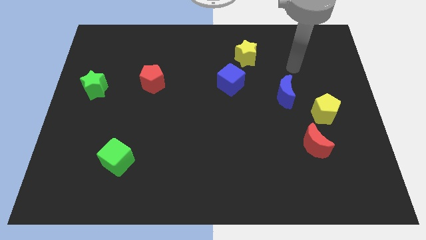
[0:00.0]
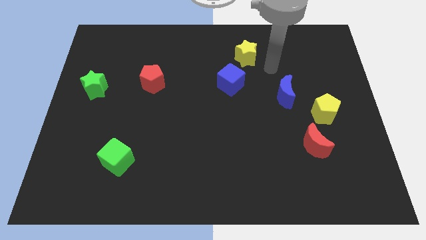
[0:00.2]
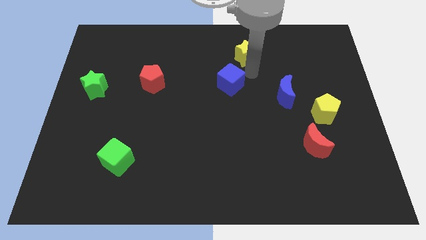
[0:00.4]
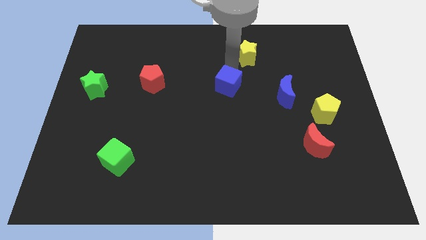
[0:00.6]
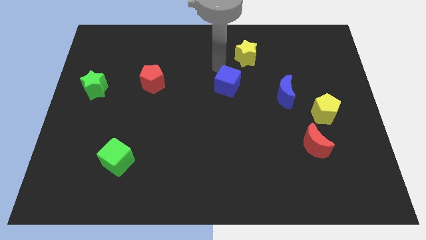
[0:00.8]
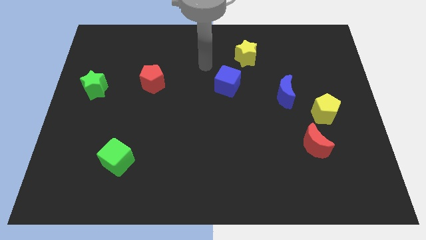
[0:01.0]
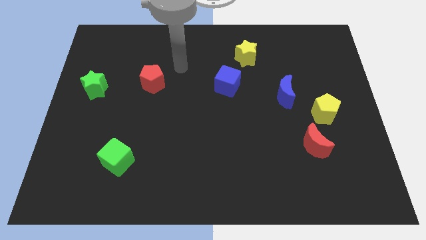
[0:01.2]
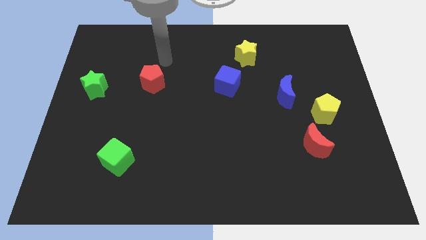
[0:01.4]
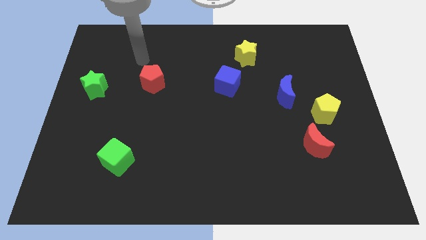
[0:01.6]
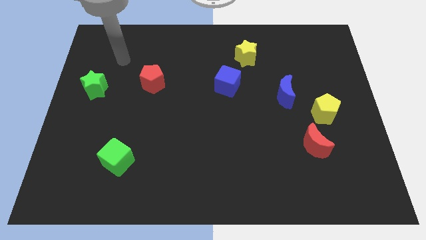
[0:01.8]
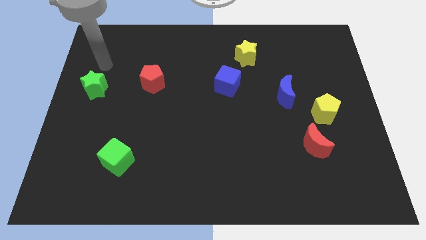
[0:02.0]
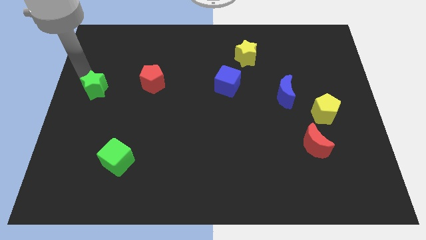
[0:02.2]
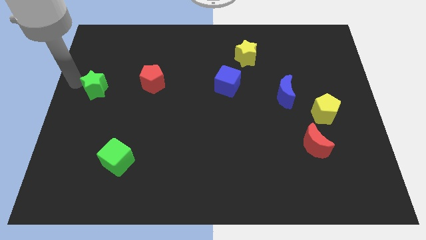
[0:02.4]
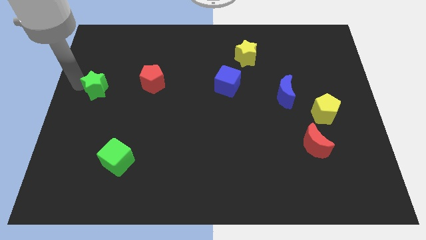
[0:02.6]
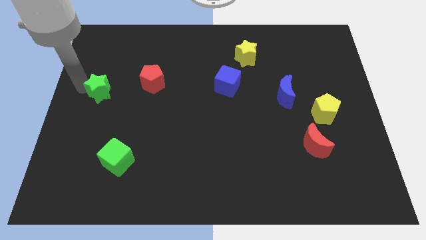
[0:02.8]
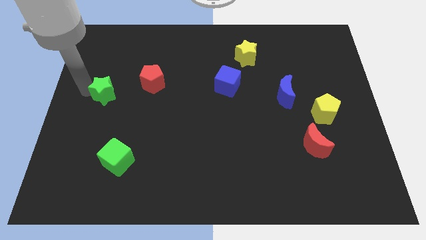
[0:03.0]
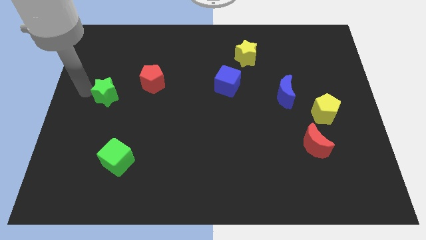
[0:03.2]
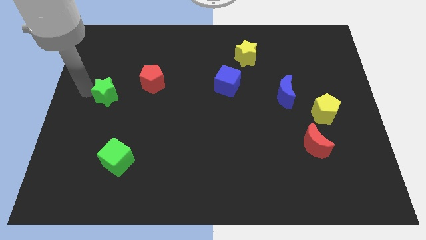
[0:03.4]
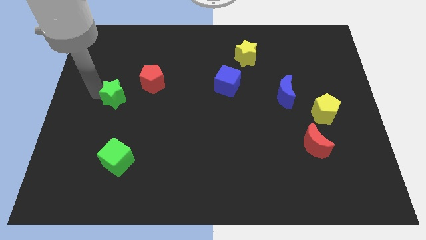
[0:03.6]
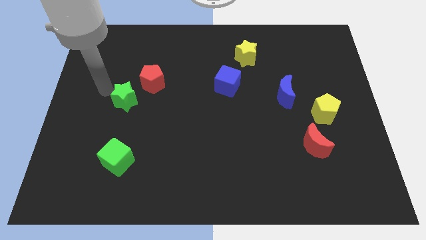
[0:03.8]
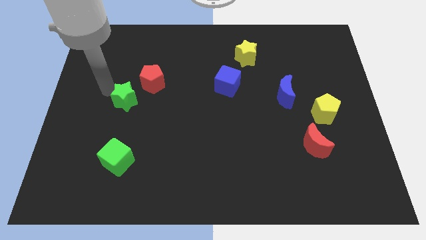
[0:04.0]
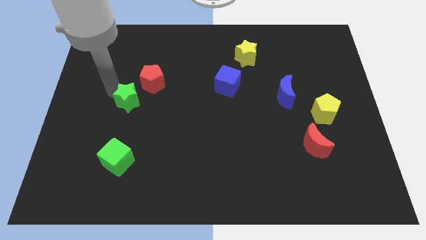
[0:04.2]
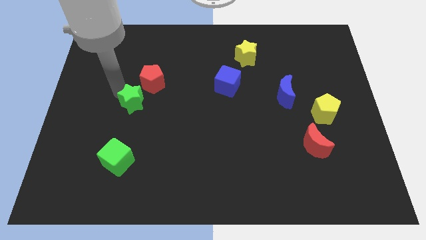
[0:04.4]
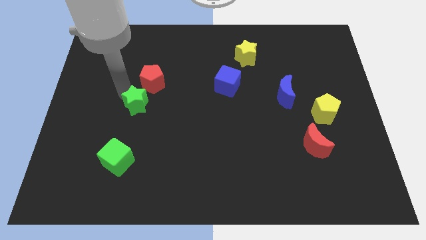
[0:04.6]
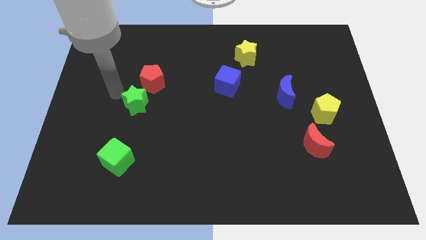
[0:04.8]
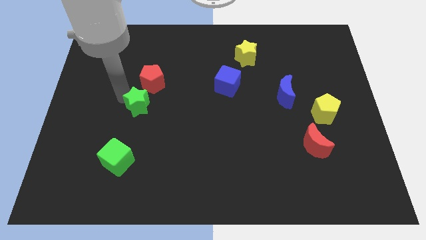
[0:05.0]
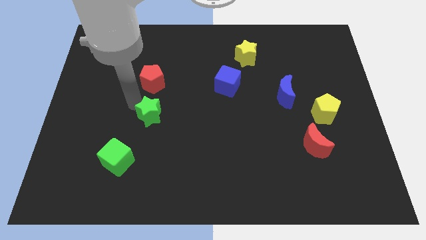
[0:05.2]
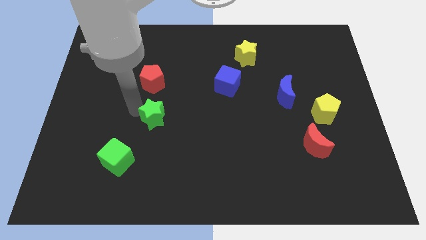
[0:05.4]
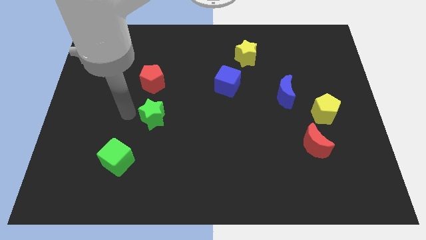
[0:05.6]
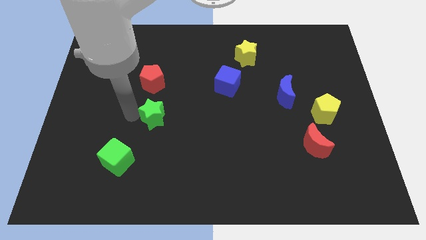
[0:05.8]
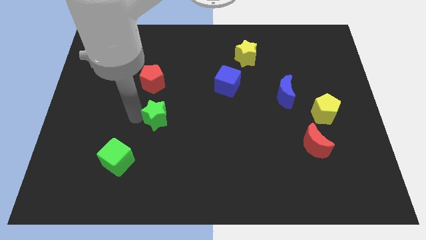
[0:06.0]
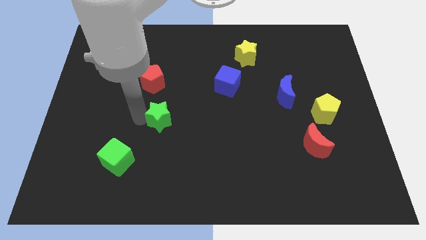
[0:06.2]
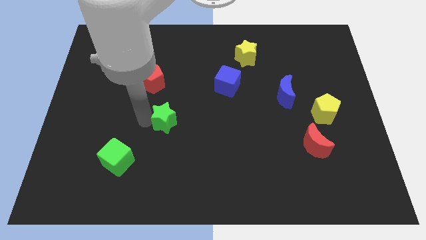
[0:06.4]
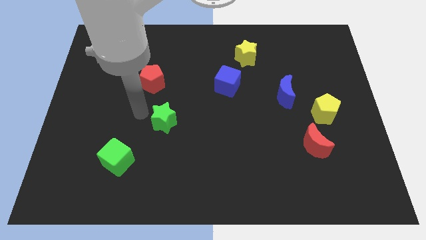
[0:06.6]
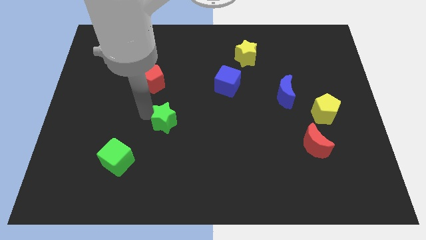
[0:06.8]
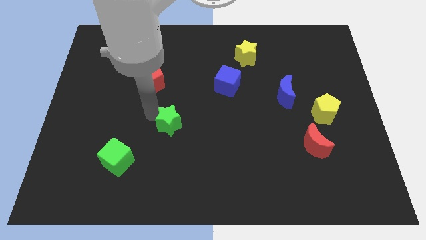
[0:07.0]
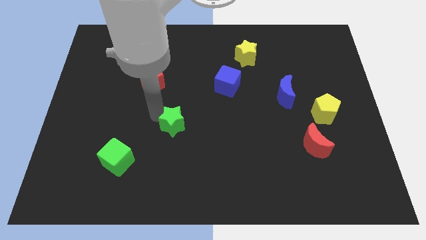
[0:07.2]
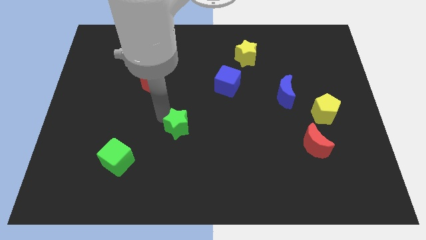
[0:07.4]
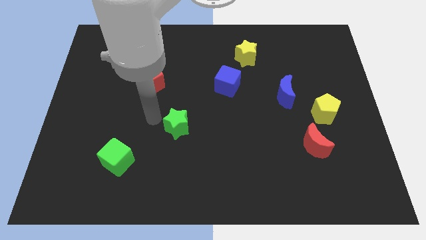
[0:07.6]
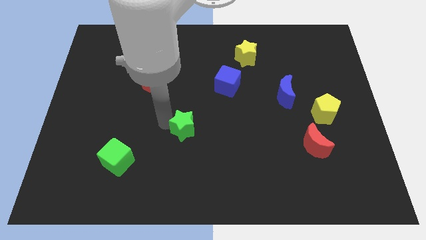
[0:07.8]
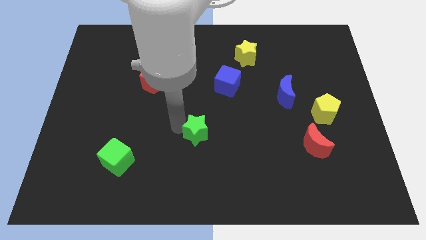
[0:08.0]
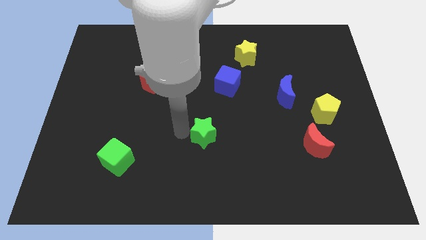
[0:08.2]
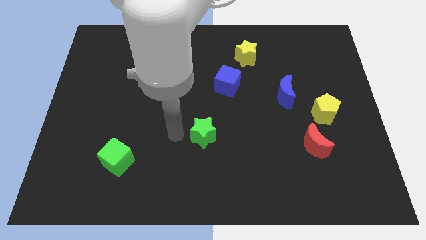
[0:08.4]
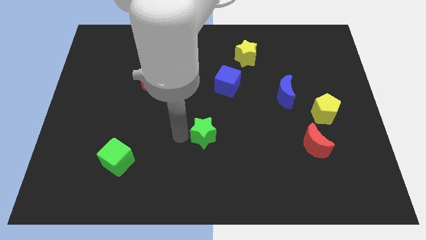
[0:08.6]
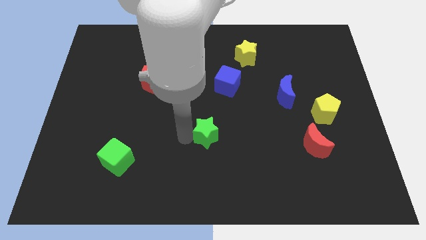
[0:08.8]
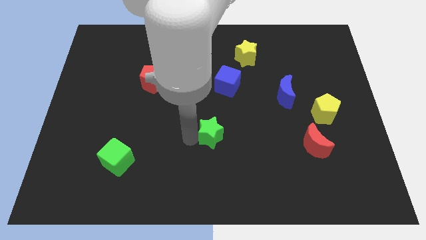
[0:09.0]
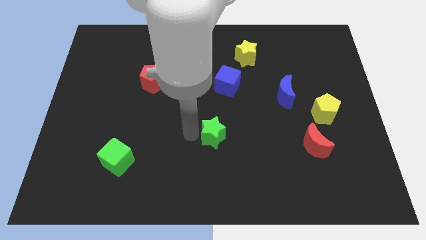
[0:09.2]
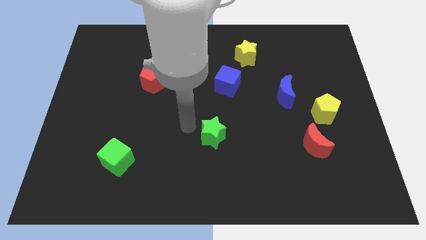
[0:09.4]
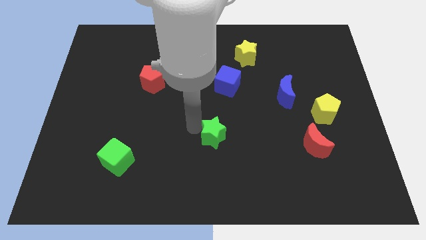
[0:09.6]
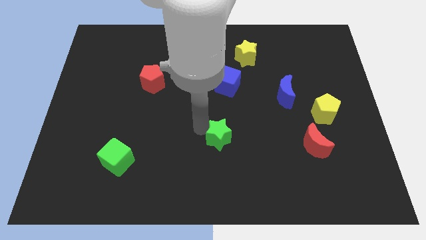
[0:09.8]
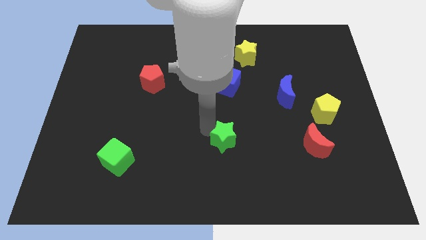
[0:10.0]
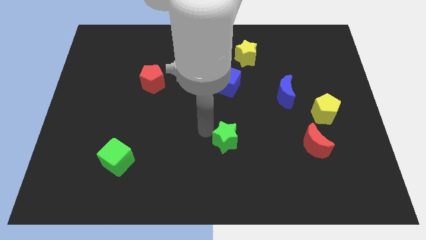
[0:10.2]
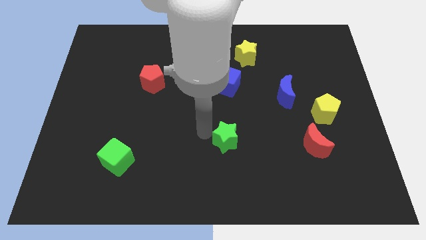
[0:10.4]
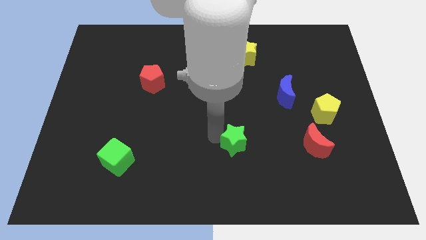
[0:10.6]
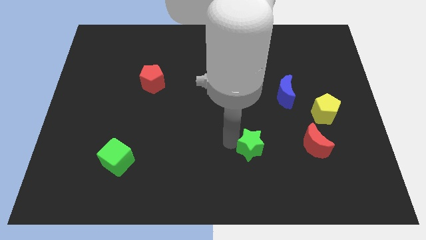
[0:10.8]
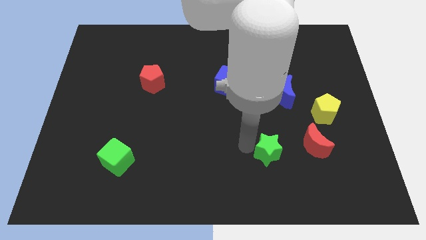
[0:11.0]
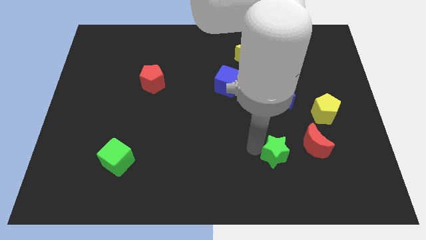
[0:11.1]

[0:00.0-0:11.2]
push the green star to the bottom left side of the red moon

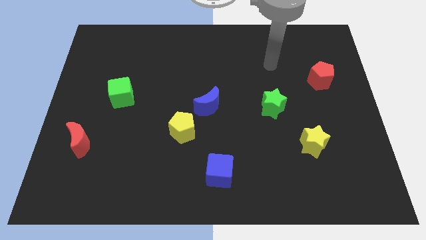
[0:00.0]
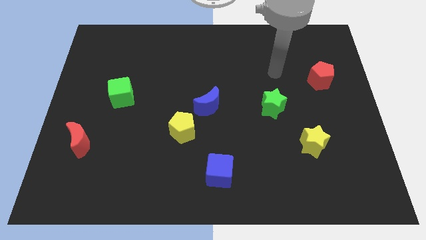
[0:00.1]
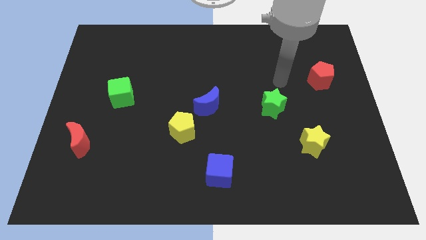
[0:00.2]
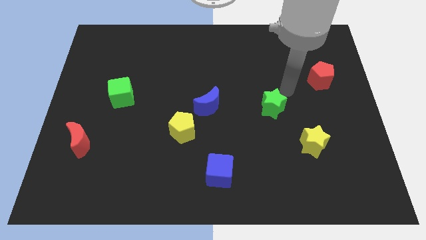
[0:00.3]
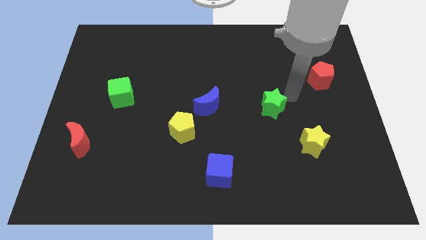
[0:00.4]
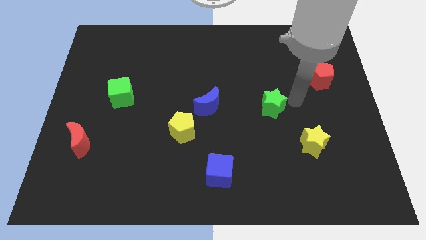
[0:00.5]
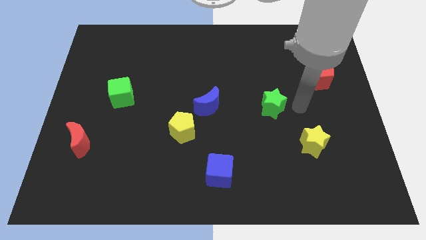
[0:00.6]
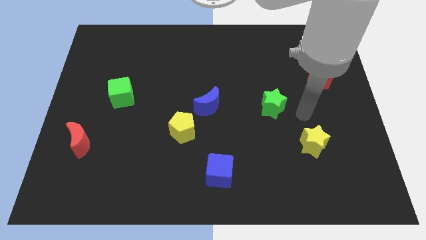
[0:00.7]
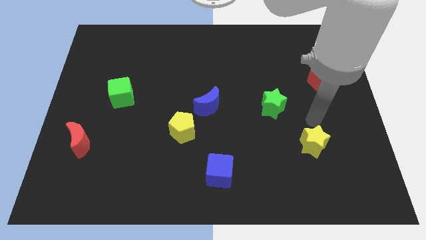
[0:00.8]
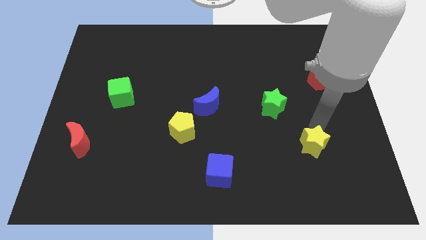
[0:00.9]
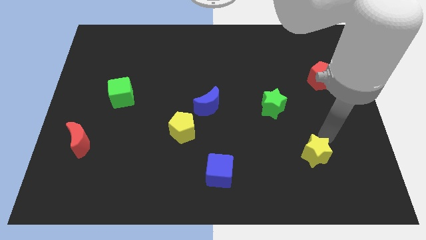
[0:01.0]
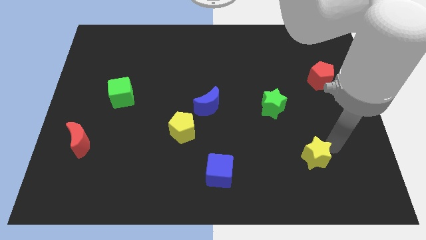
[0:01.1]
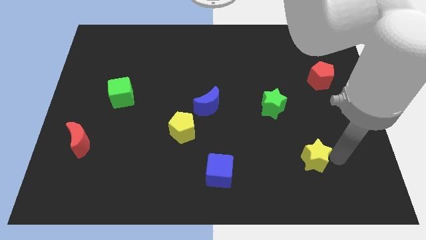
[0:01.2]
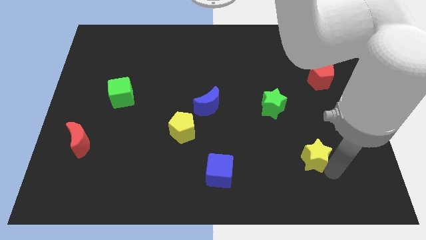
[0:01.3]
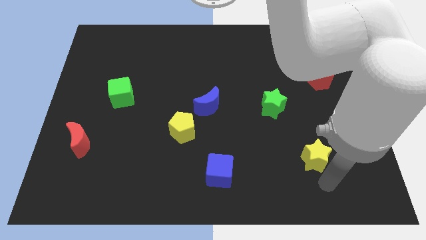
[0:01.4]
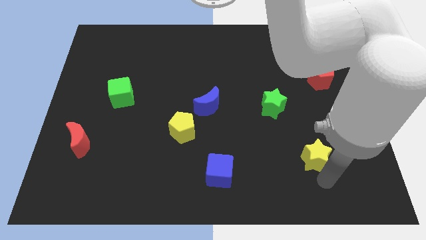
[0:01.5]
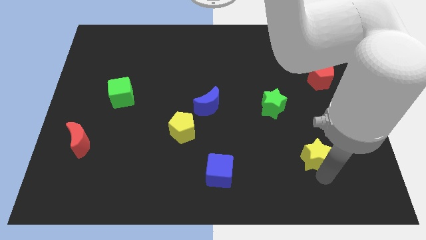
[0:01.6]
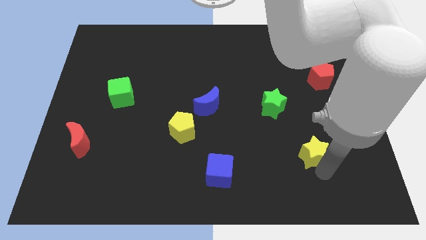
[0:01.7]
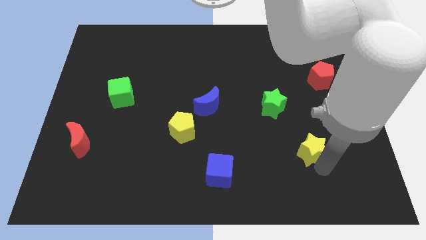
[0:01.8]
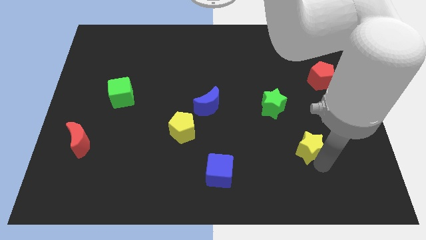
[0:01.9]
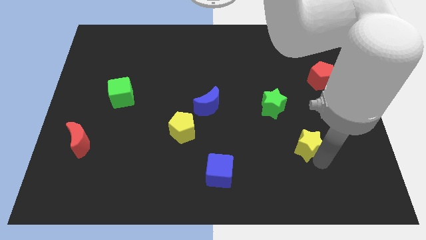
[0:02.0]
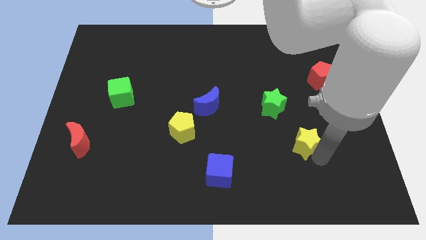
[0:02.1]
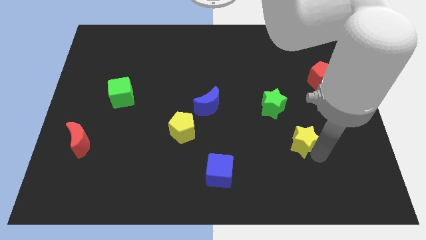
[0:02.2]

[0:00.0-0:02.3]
push the yellow star to the bottom right side of the green star
